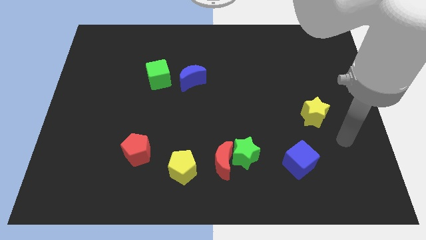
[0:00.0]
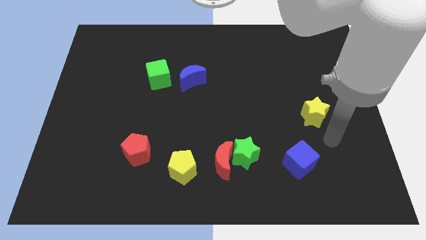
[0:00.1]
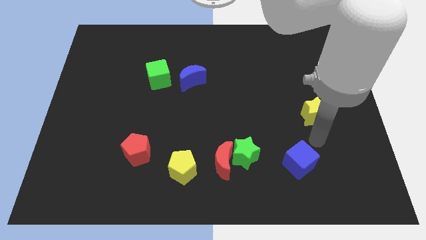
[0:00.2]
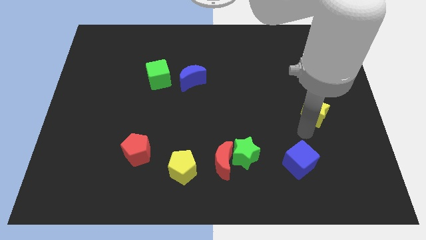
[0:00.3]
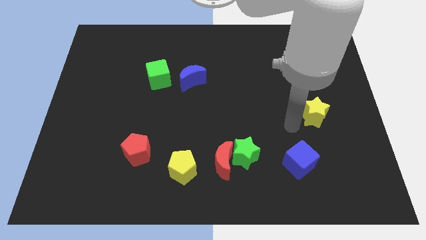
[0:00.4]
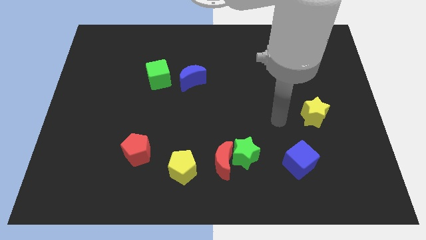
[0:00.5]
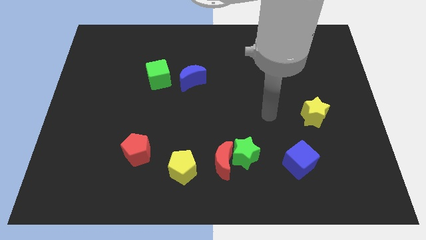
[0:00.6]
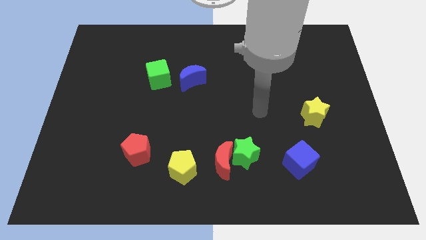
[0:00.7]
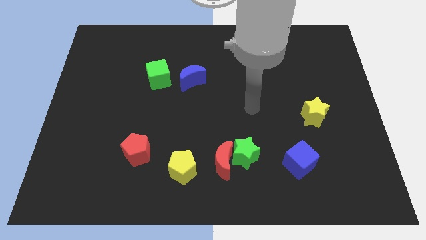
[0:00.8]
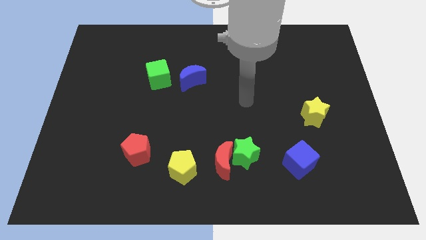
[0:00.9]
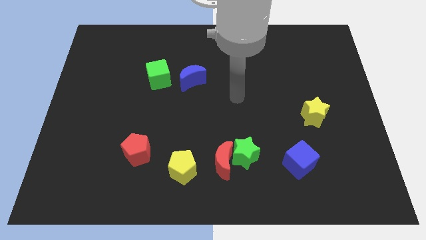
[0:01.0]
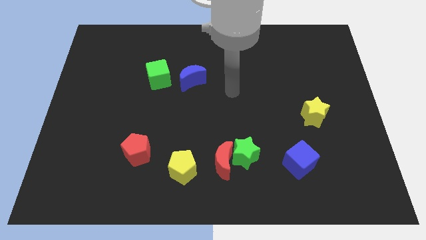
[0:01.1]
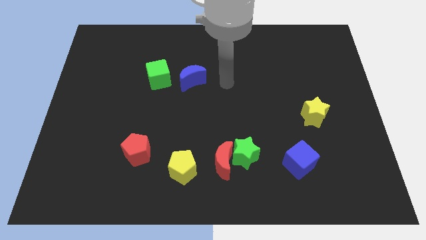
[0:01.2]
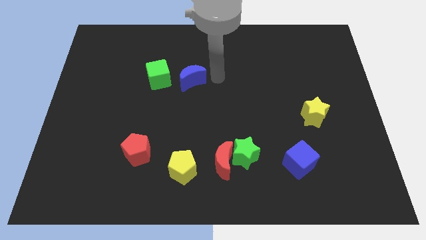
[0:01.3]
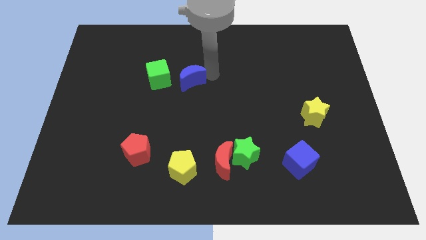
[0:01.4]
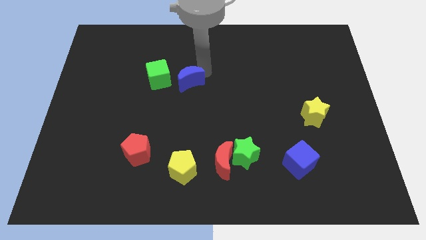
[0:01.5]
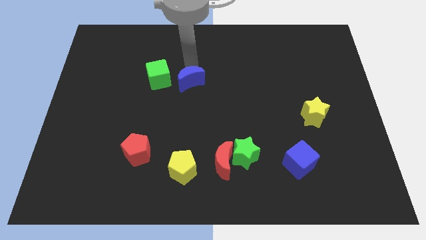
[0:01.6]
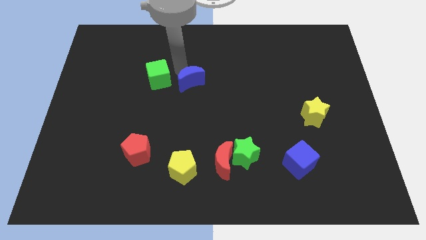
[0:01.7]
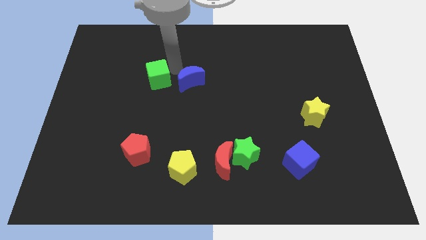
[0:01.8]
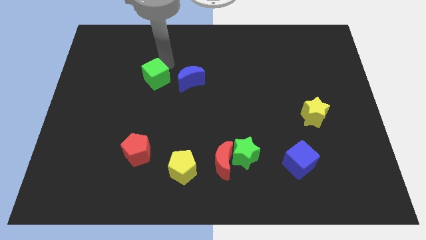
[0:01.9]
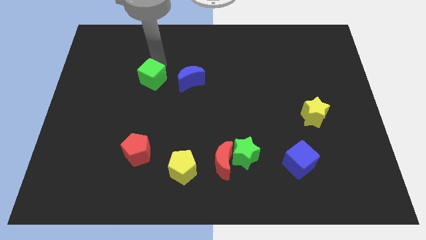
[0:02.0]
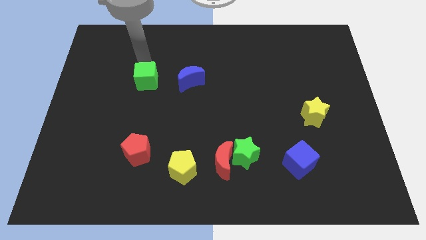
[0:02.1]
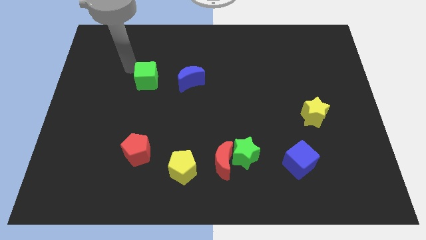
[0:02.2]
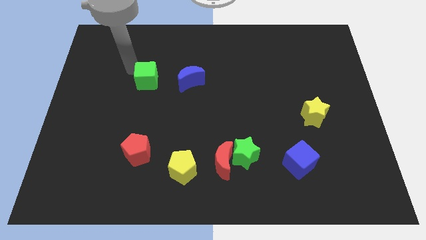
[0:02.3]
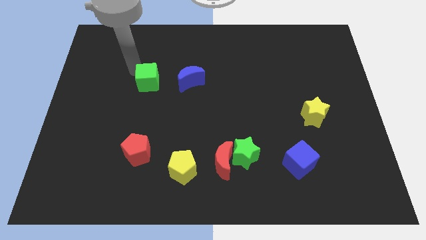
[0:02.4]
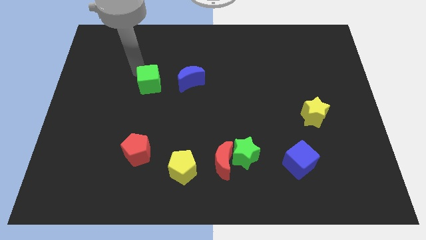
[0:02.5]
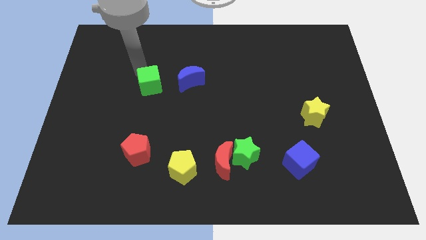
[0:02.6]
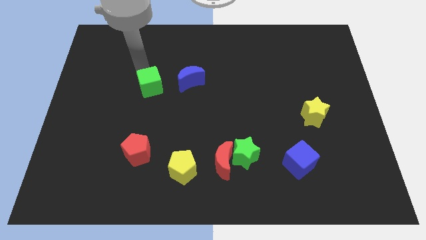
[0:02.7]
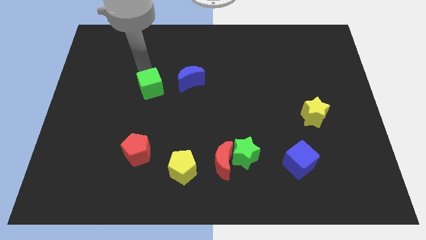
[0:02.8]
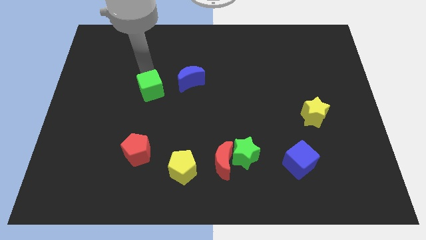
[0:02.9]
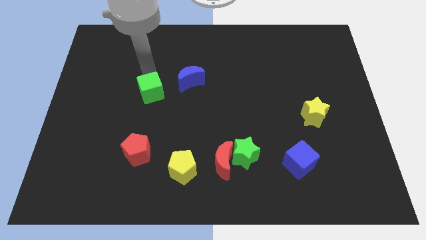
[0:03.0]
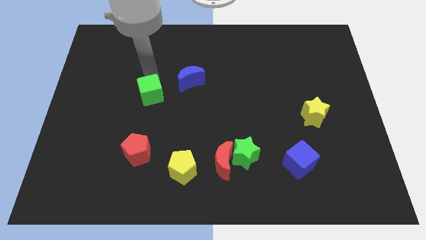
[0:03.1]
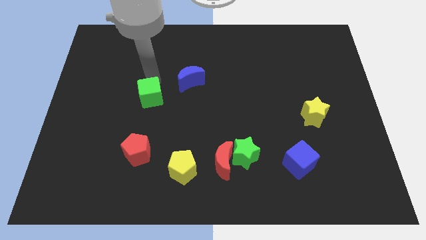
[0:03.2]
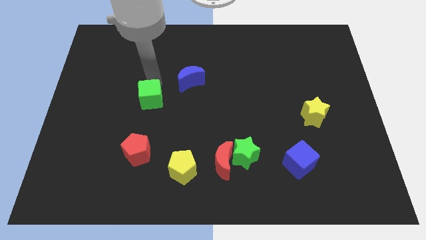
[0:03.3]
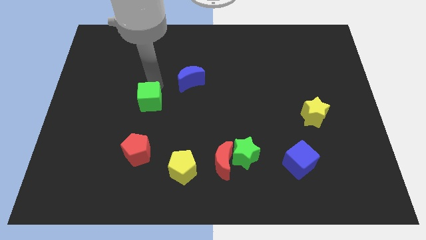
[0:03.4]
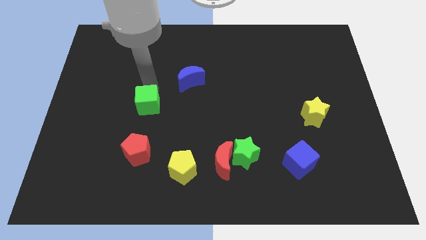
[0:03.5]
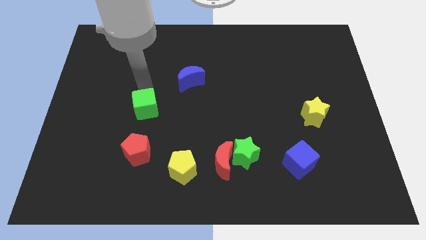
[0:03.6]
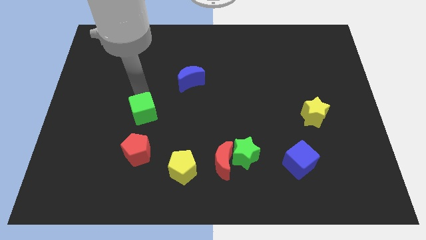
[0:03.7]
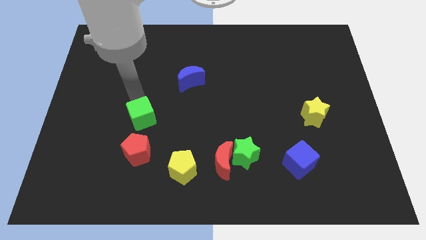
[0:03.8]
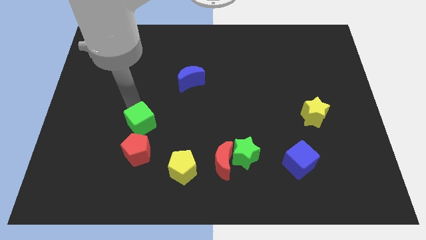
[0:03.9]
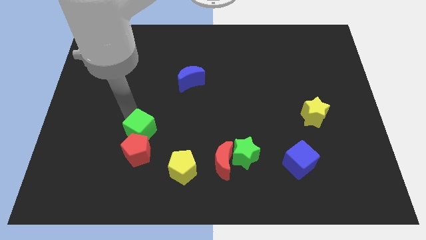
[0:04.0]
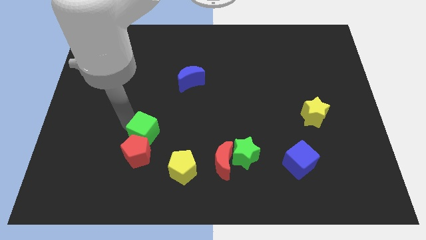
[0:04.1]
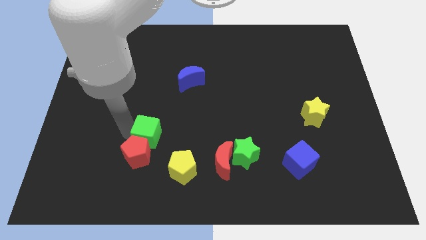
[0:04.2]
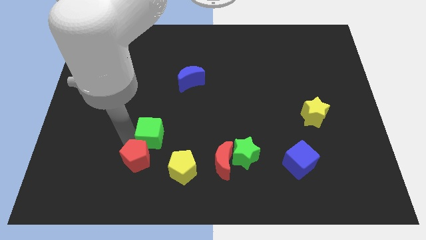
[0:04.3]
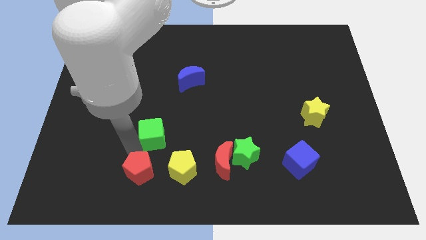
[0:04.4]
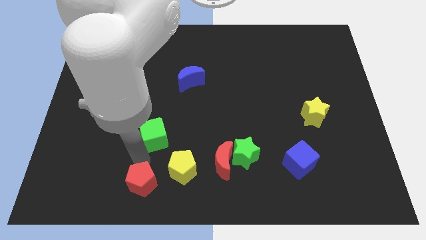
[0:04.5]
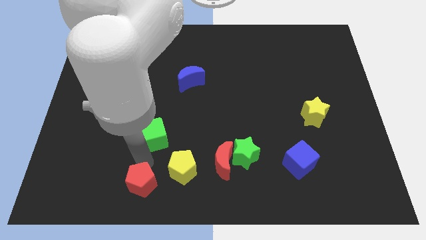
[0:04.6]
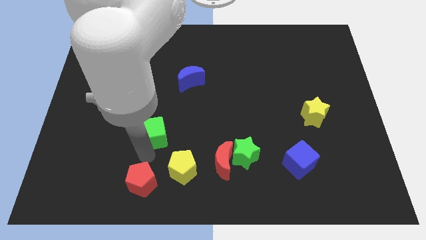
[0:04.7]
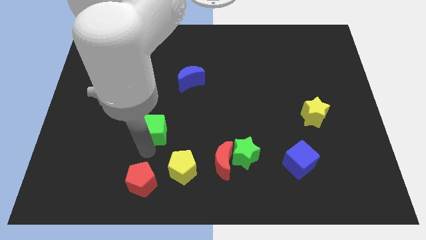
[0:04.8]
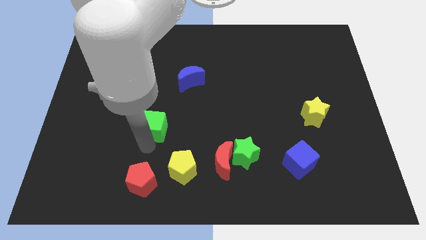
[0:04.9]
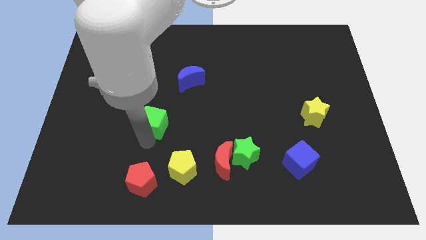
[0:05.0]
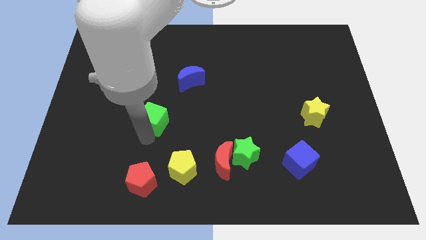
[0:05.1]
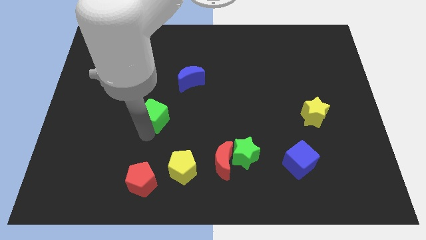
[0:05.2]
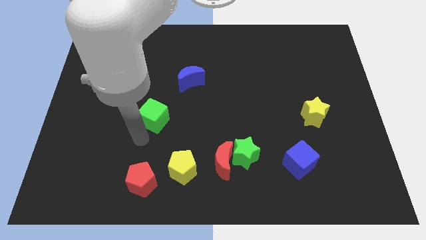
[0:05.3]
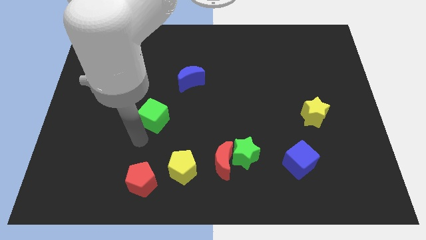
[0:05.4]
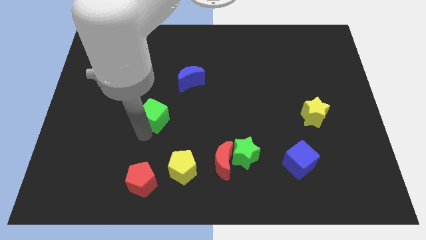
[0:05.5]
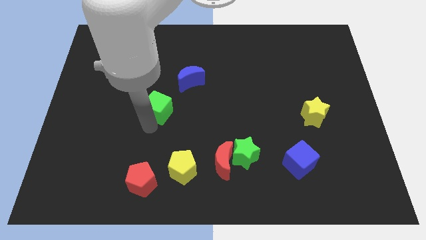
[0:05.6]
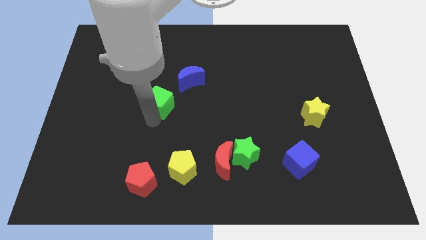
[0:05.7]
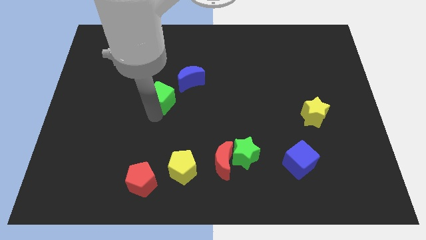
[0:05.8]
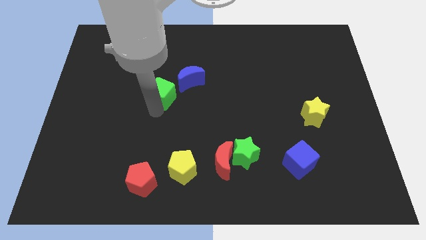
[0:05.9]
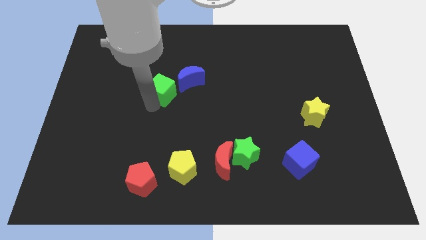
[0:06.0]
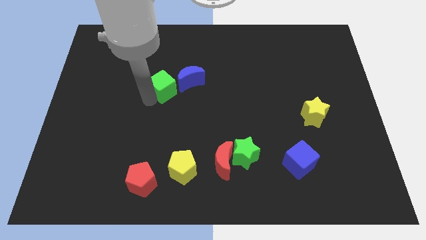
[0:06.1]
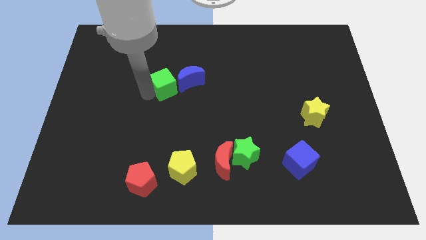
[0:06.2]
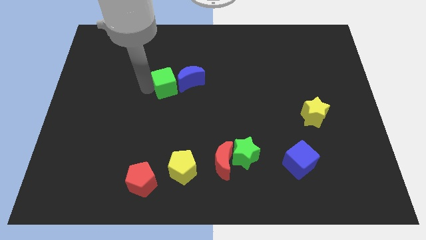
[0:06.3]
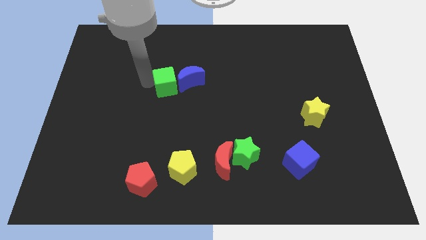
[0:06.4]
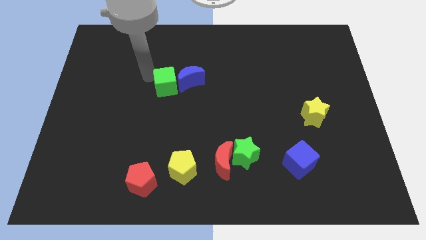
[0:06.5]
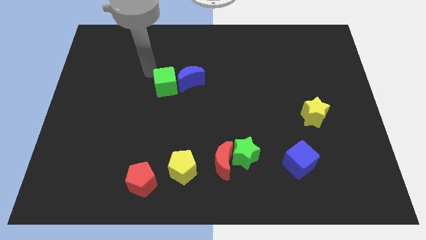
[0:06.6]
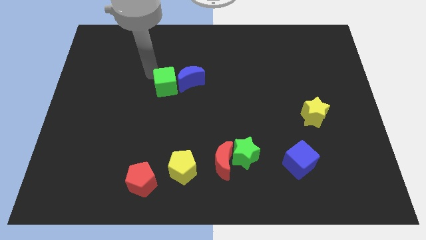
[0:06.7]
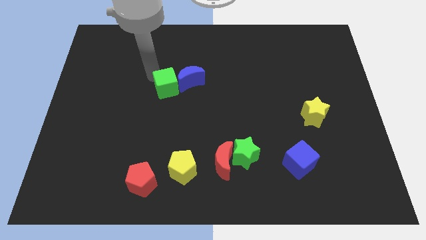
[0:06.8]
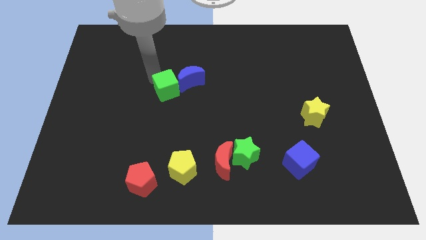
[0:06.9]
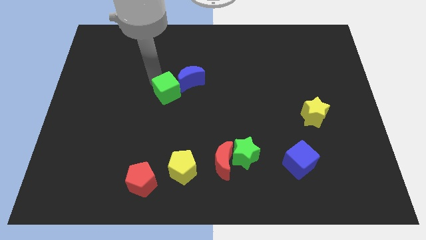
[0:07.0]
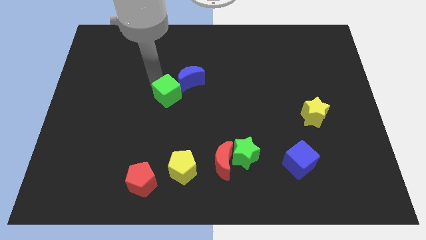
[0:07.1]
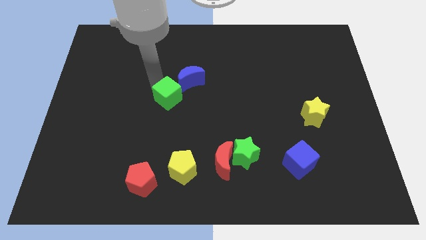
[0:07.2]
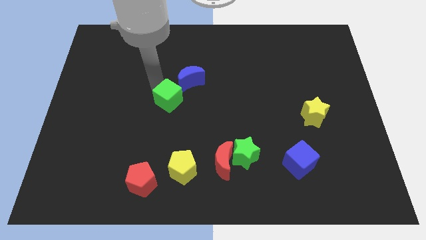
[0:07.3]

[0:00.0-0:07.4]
slide the green cube diagonally down and to the right somewhat

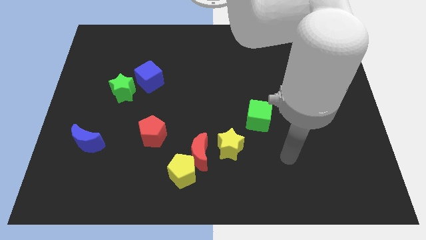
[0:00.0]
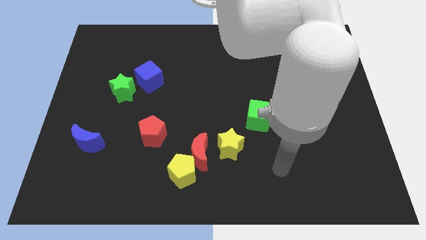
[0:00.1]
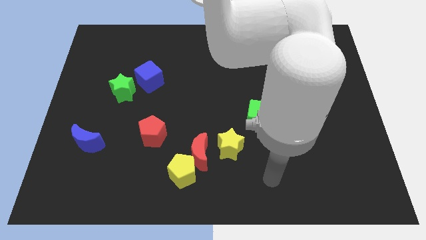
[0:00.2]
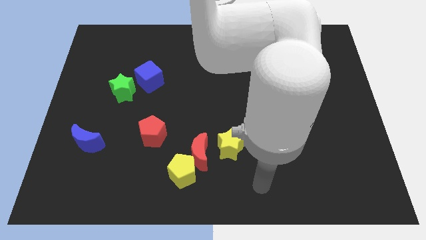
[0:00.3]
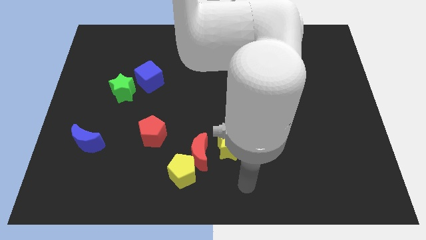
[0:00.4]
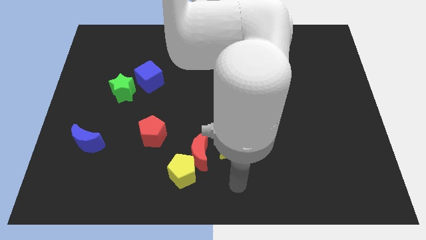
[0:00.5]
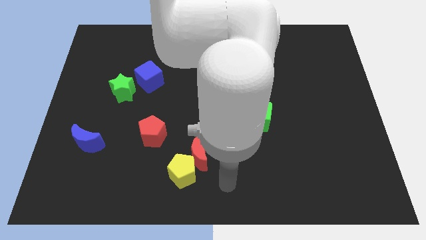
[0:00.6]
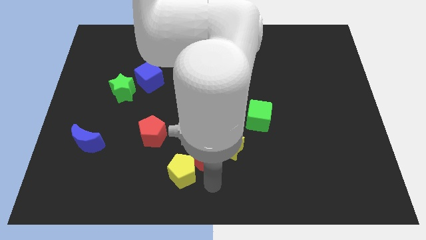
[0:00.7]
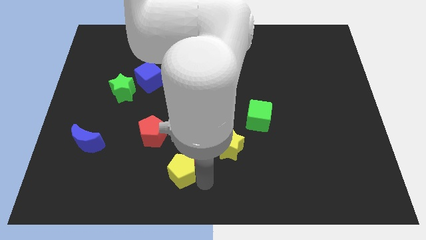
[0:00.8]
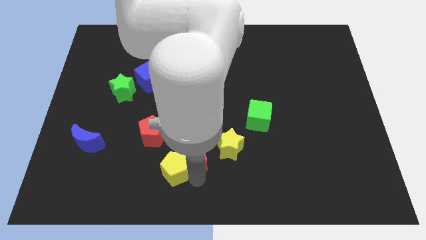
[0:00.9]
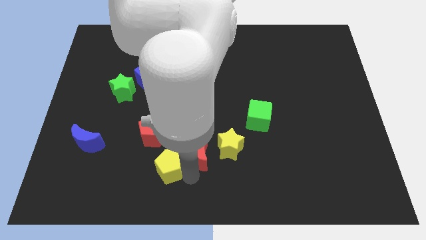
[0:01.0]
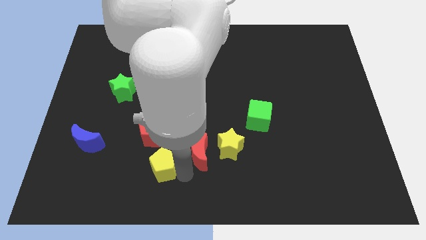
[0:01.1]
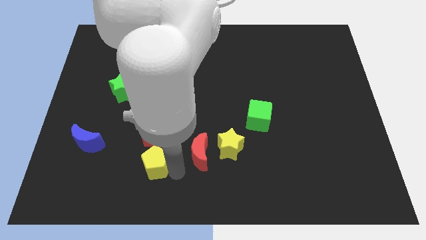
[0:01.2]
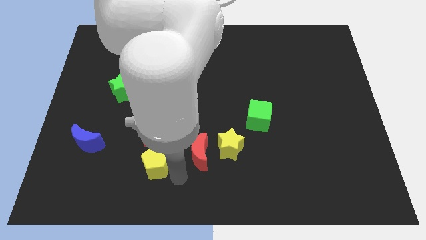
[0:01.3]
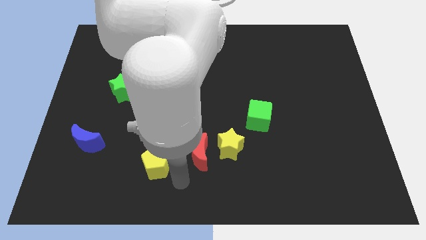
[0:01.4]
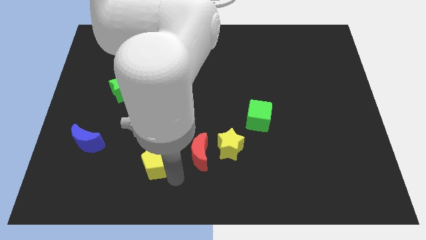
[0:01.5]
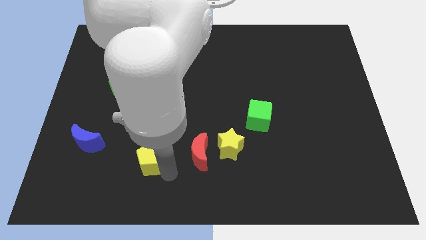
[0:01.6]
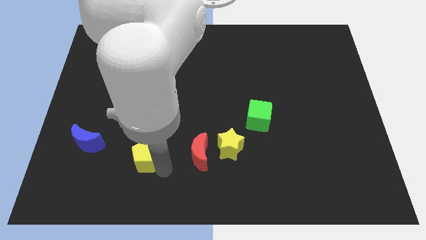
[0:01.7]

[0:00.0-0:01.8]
move the yellow pentagon a little bit up and then left
